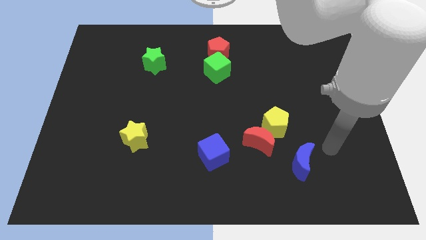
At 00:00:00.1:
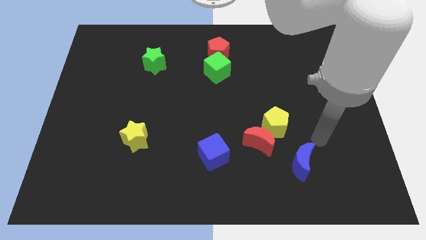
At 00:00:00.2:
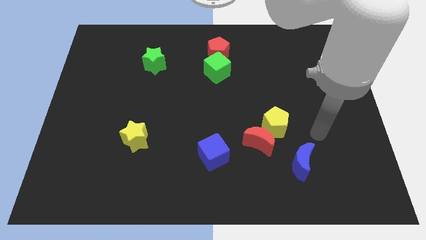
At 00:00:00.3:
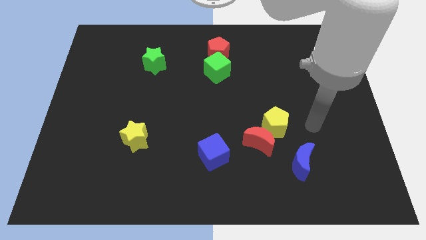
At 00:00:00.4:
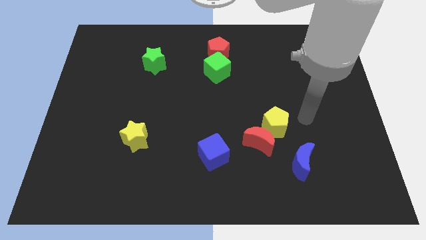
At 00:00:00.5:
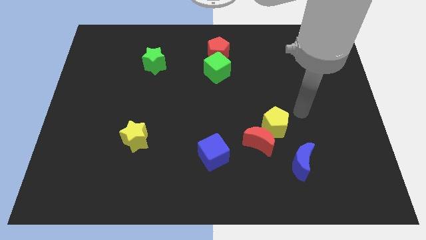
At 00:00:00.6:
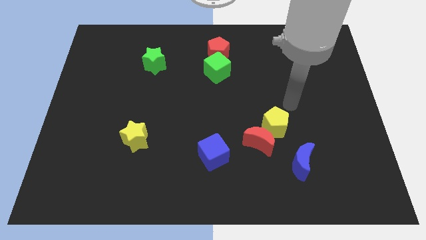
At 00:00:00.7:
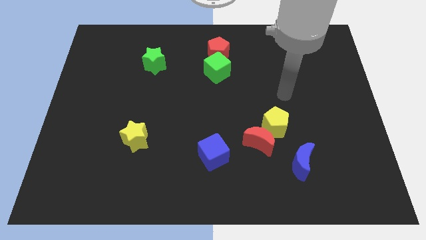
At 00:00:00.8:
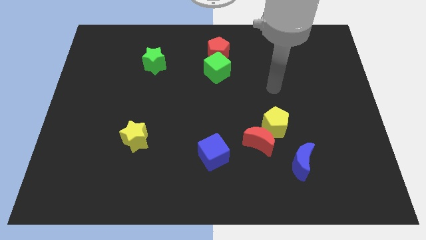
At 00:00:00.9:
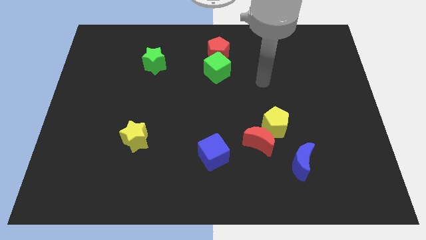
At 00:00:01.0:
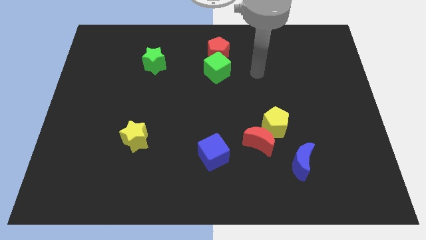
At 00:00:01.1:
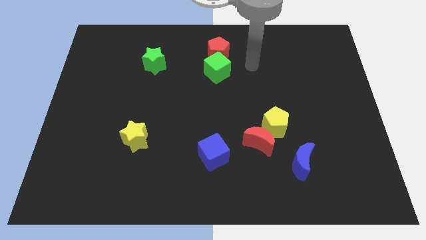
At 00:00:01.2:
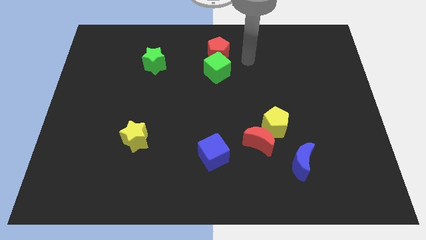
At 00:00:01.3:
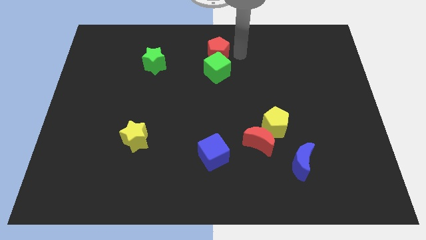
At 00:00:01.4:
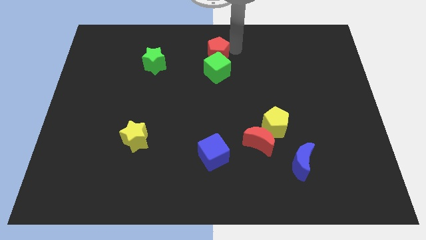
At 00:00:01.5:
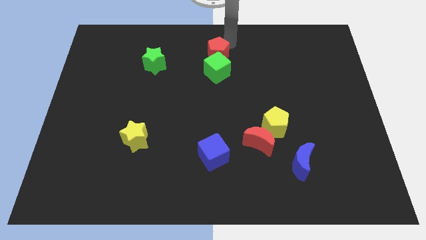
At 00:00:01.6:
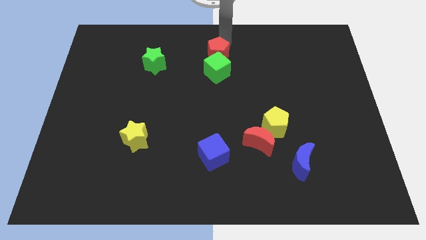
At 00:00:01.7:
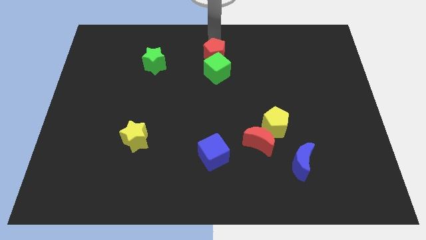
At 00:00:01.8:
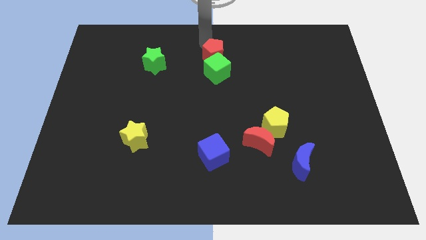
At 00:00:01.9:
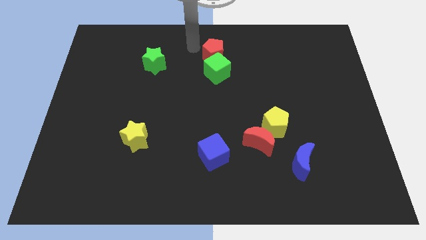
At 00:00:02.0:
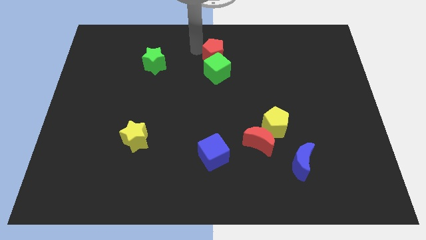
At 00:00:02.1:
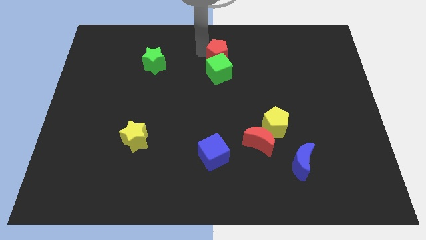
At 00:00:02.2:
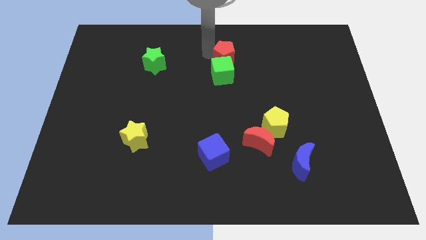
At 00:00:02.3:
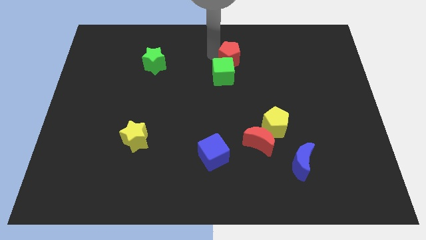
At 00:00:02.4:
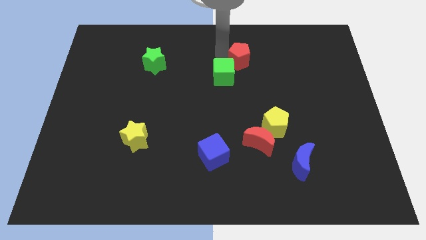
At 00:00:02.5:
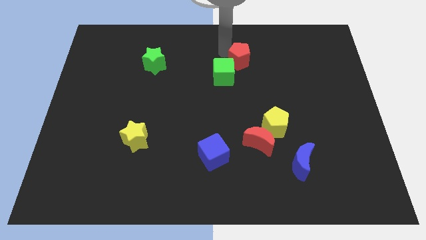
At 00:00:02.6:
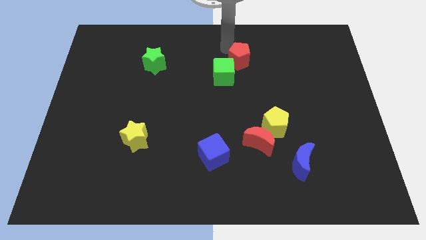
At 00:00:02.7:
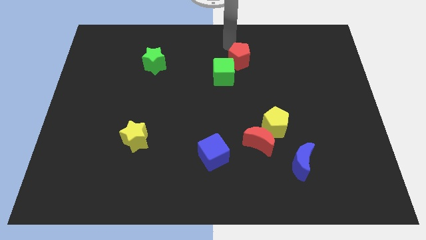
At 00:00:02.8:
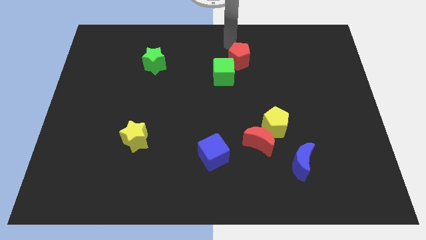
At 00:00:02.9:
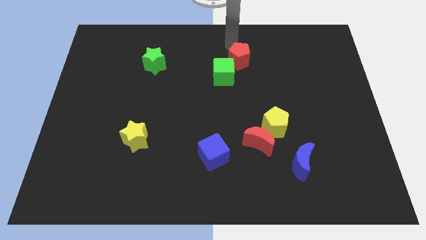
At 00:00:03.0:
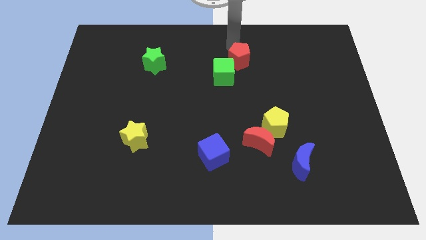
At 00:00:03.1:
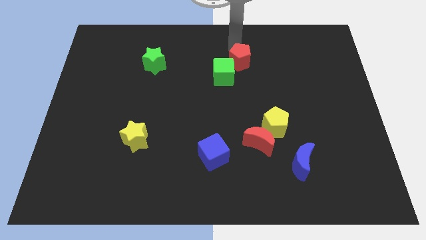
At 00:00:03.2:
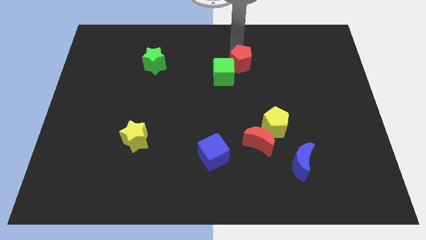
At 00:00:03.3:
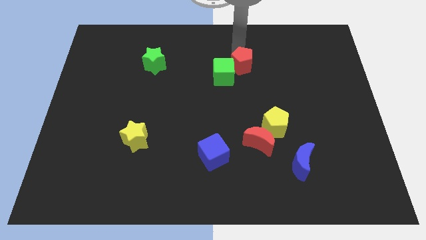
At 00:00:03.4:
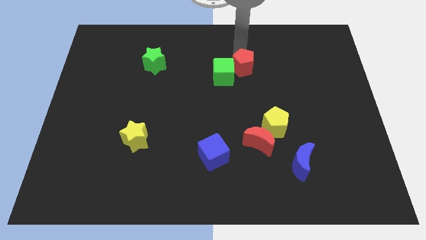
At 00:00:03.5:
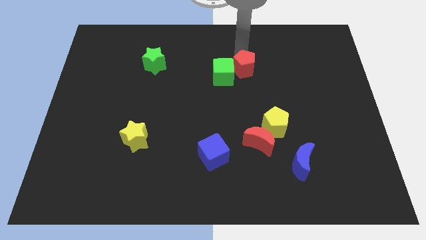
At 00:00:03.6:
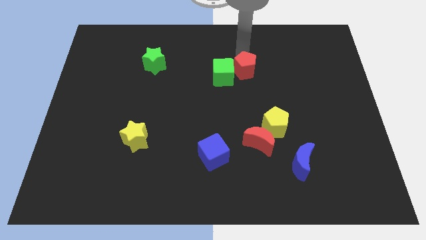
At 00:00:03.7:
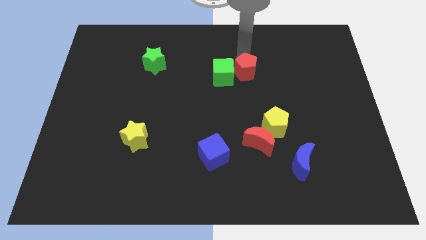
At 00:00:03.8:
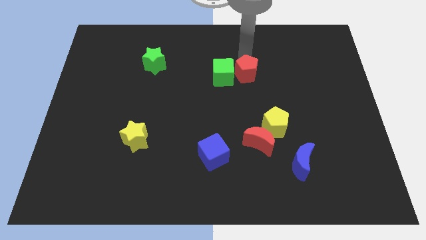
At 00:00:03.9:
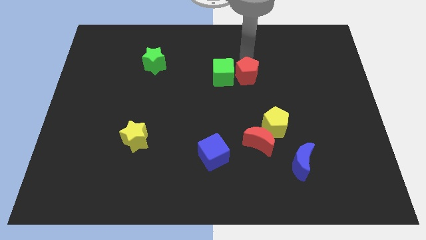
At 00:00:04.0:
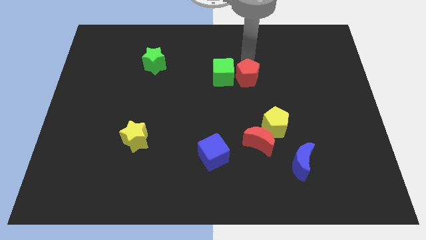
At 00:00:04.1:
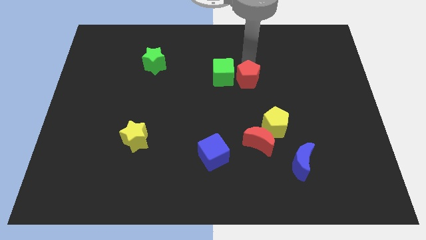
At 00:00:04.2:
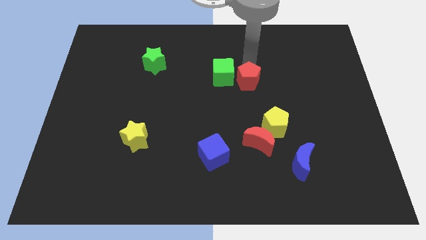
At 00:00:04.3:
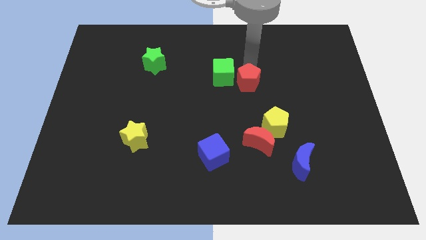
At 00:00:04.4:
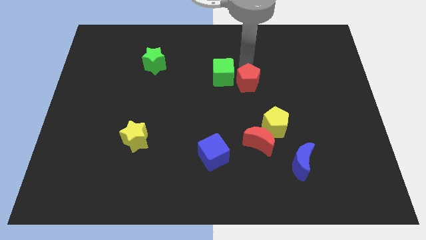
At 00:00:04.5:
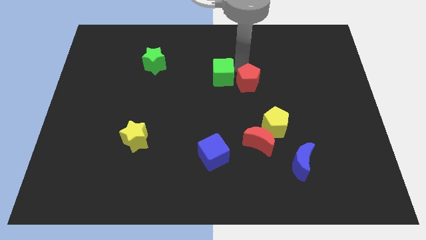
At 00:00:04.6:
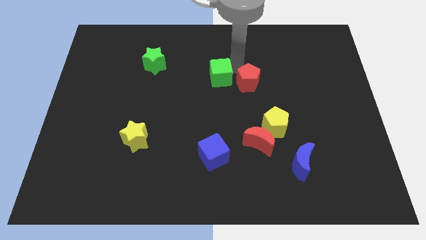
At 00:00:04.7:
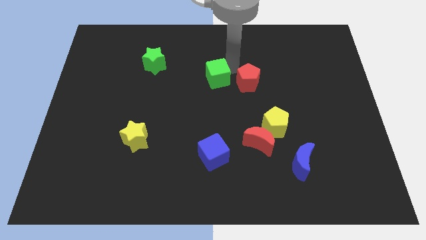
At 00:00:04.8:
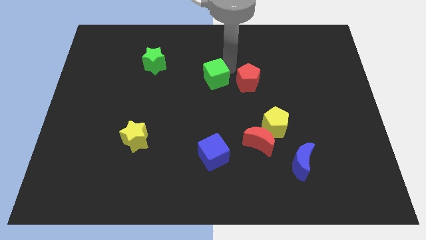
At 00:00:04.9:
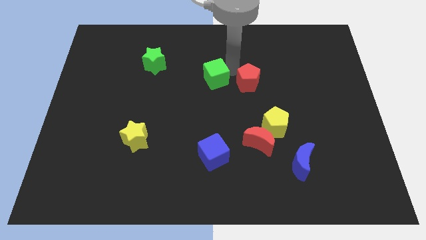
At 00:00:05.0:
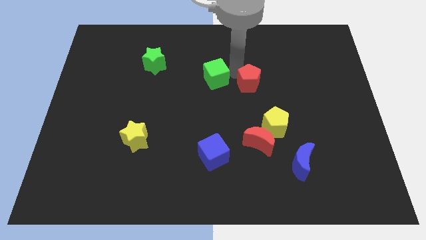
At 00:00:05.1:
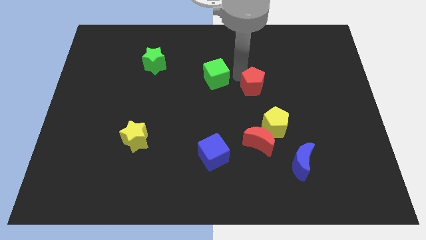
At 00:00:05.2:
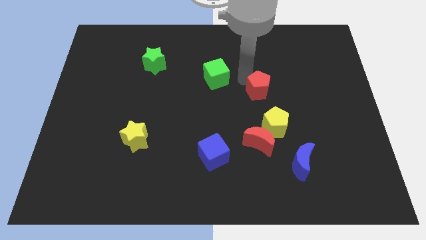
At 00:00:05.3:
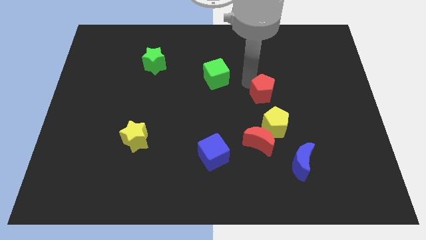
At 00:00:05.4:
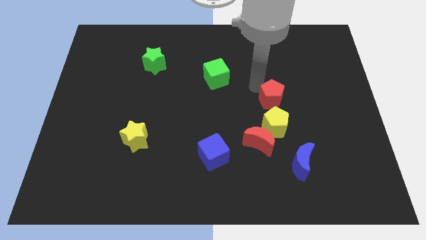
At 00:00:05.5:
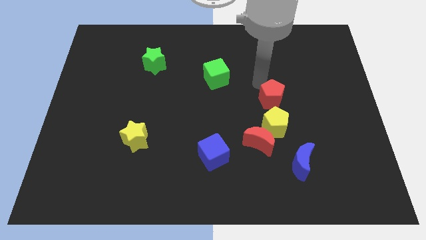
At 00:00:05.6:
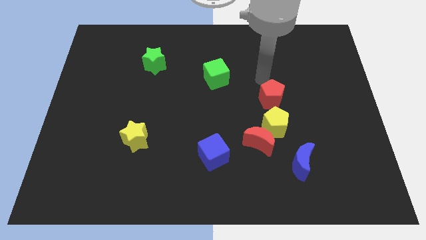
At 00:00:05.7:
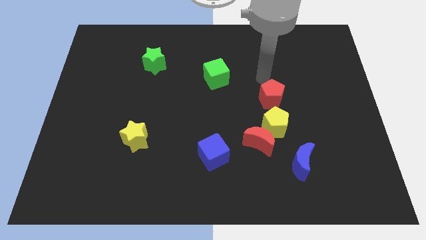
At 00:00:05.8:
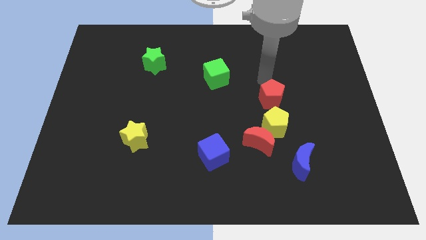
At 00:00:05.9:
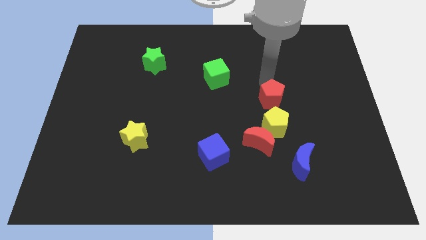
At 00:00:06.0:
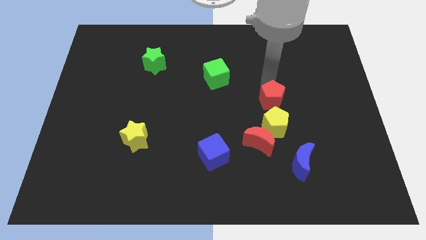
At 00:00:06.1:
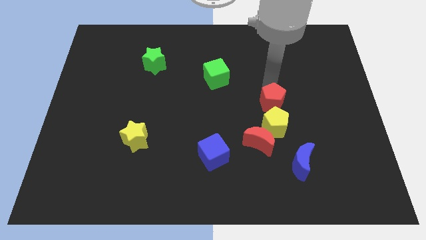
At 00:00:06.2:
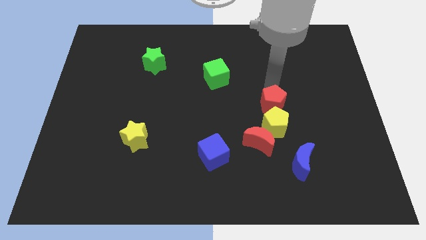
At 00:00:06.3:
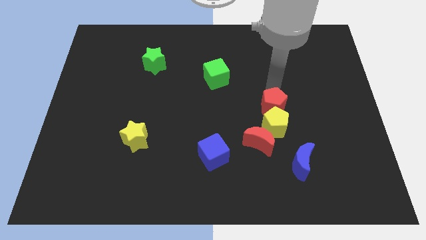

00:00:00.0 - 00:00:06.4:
put the red pentagon diagonally up and to the right of the red moon
